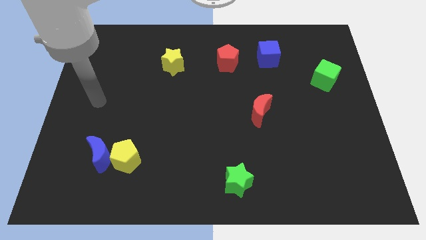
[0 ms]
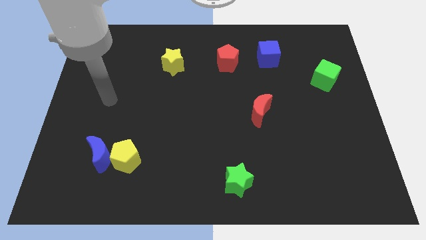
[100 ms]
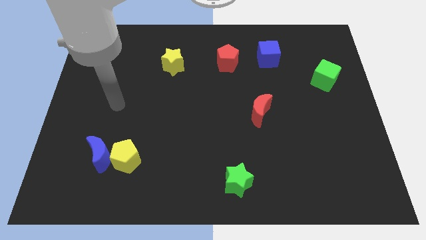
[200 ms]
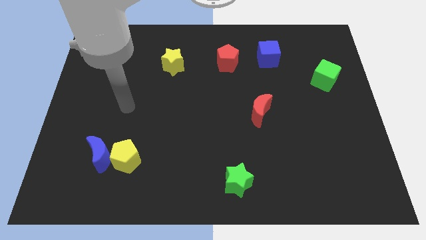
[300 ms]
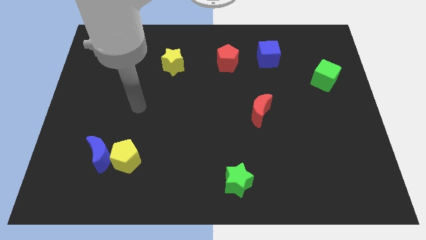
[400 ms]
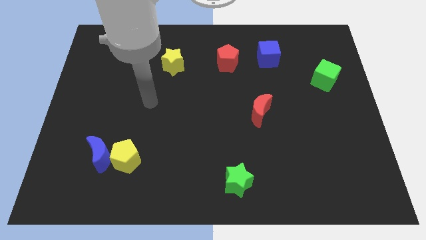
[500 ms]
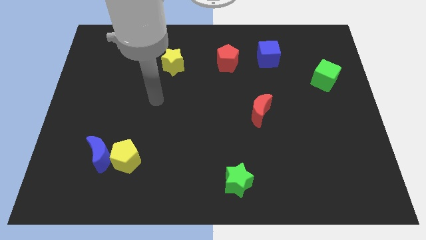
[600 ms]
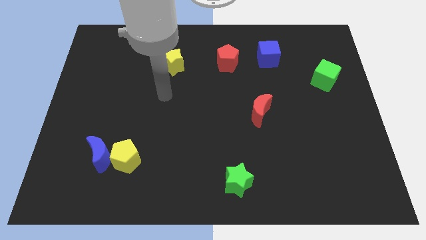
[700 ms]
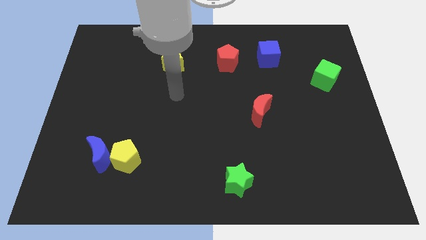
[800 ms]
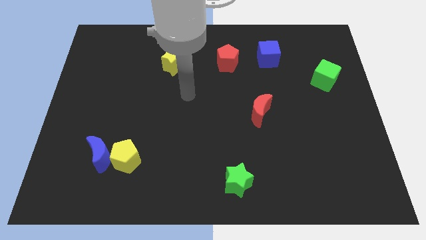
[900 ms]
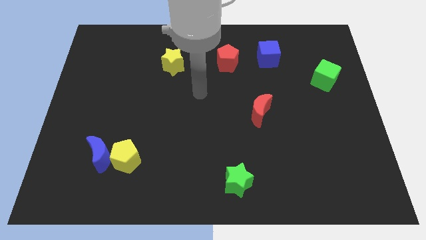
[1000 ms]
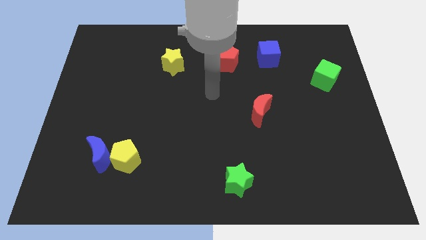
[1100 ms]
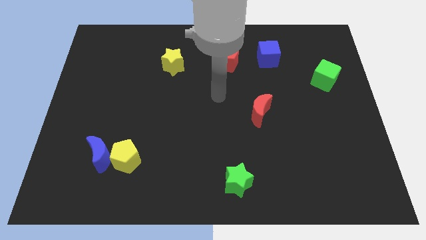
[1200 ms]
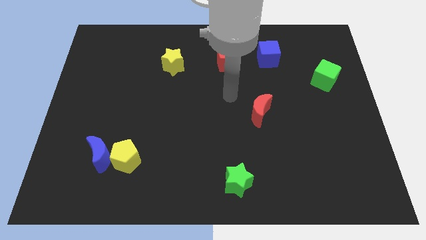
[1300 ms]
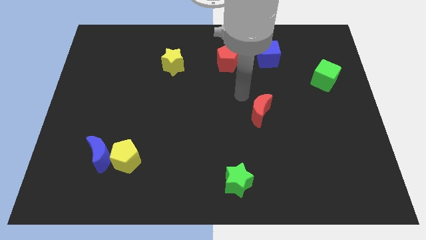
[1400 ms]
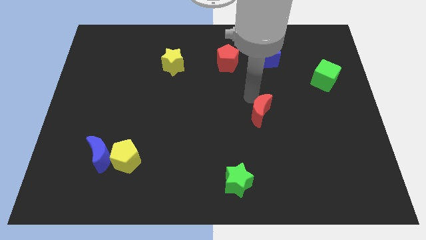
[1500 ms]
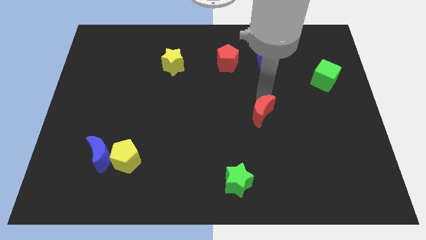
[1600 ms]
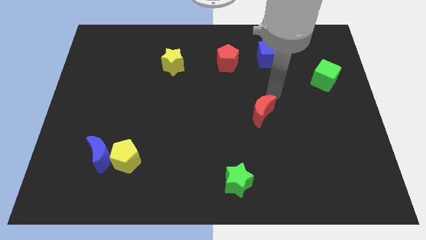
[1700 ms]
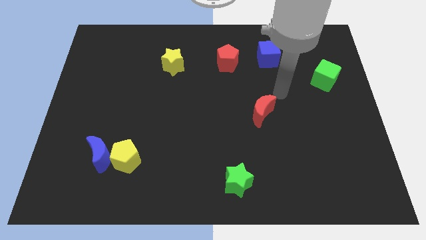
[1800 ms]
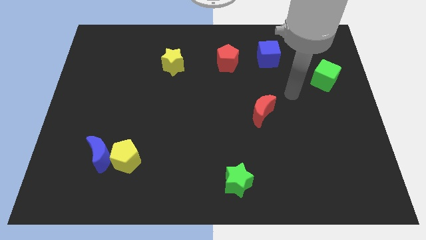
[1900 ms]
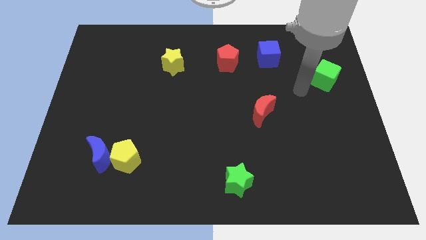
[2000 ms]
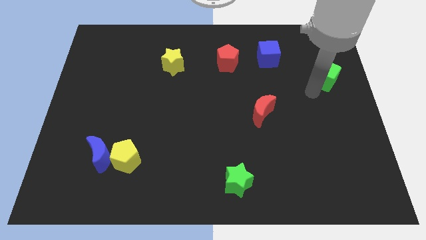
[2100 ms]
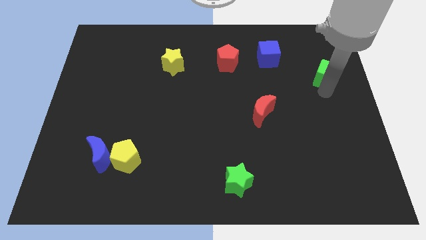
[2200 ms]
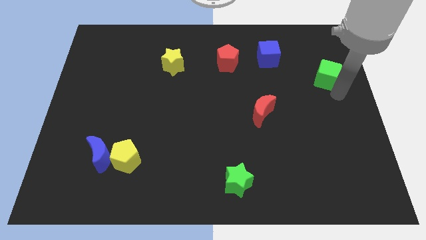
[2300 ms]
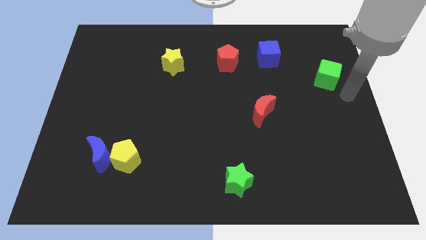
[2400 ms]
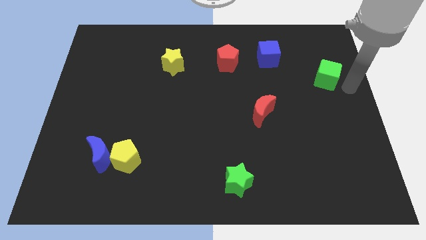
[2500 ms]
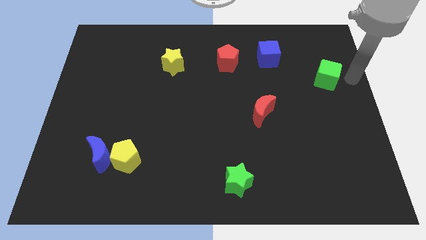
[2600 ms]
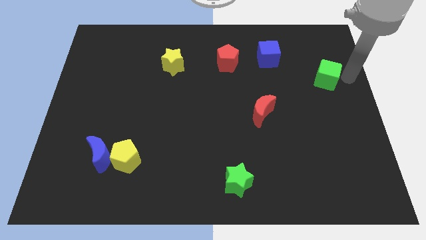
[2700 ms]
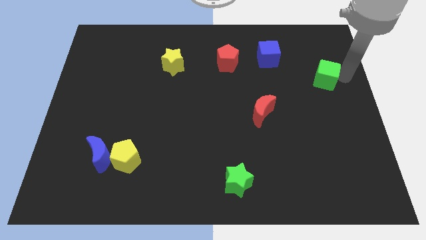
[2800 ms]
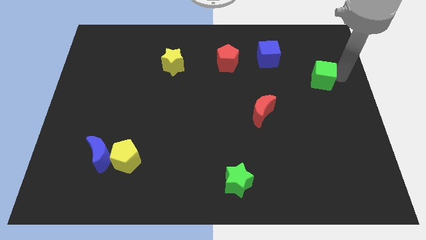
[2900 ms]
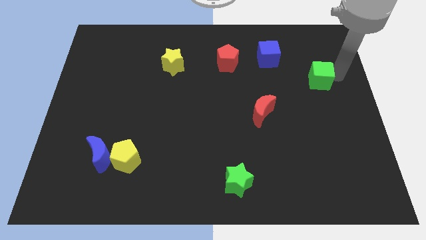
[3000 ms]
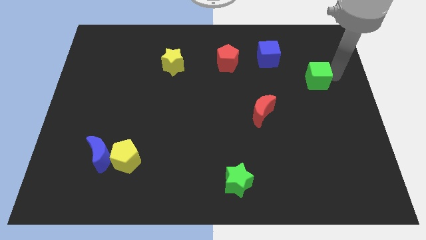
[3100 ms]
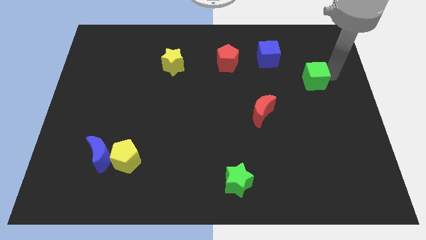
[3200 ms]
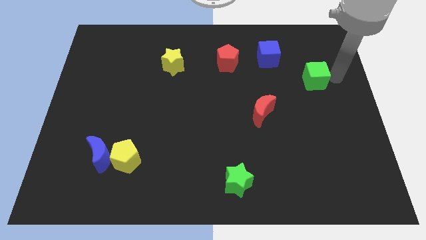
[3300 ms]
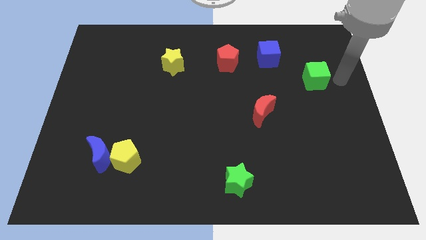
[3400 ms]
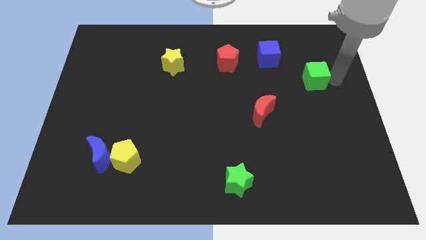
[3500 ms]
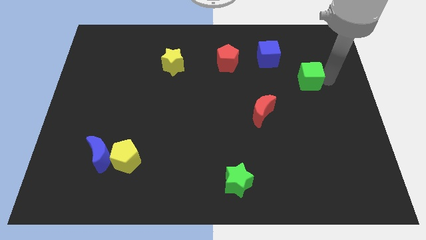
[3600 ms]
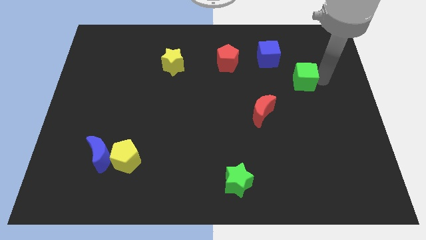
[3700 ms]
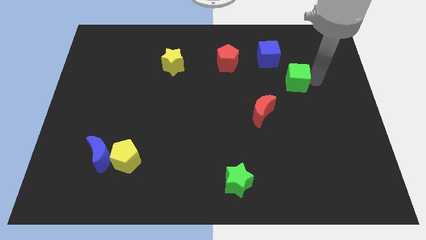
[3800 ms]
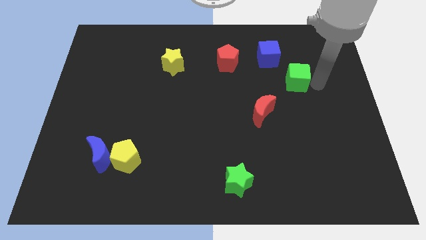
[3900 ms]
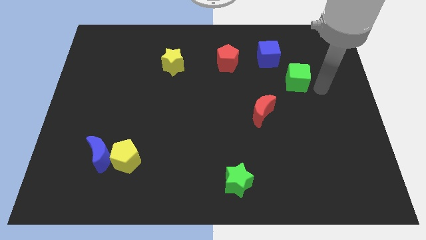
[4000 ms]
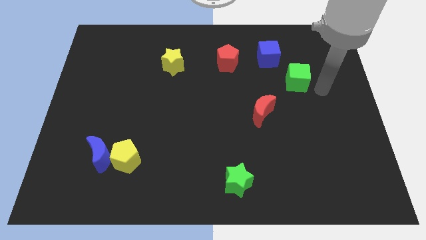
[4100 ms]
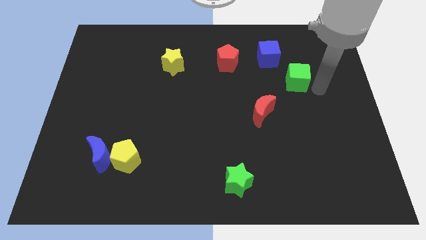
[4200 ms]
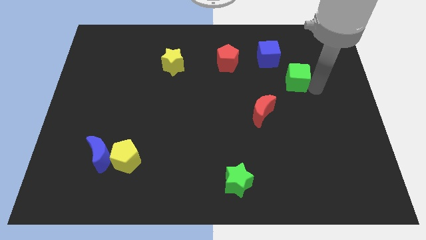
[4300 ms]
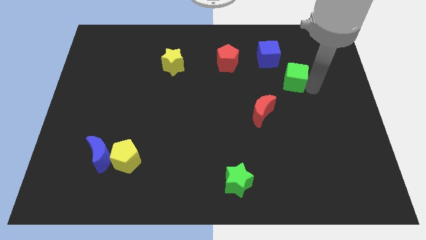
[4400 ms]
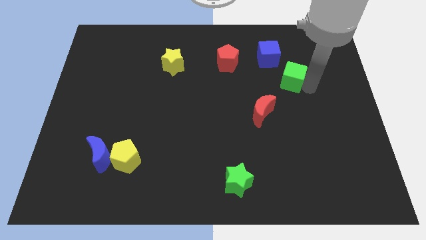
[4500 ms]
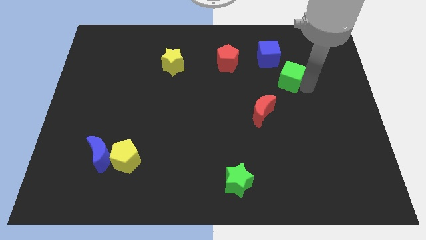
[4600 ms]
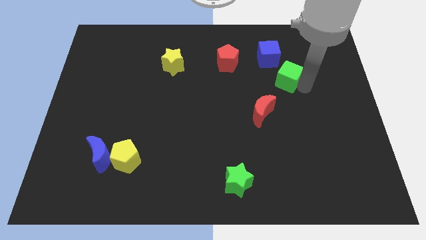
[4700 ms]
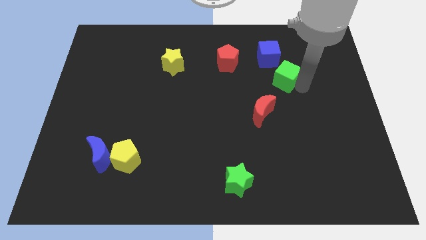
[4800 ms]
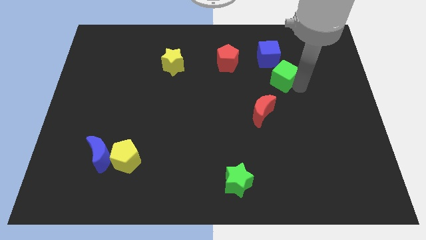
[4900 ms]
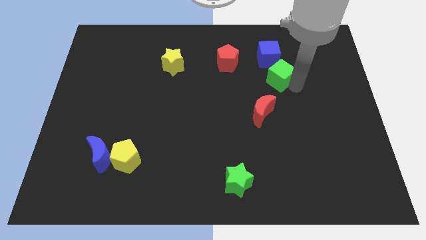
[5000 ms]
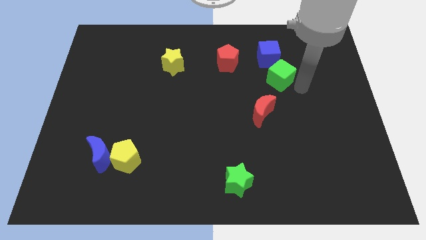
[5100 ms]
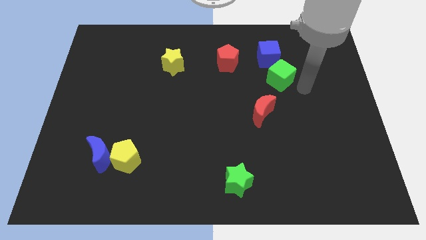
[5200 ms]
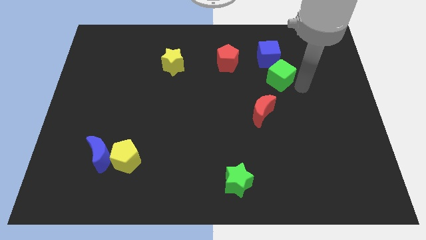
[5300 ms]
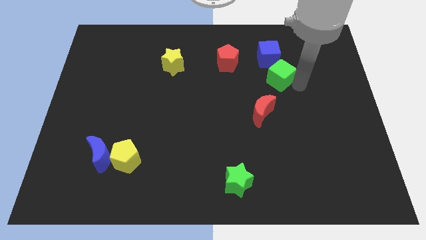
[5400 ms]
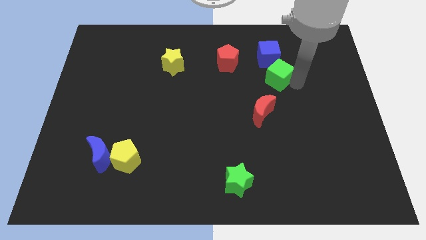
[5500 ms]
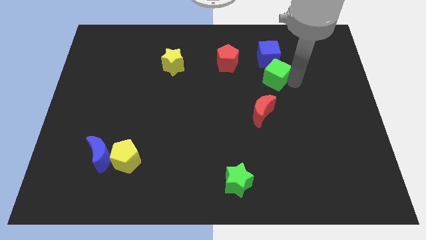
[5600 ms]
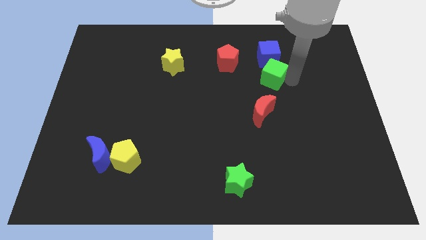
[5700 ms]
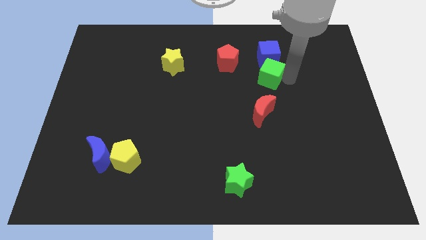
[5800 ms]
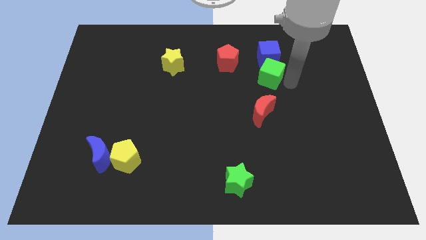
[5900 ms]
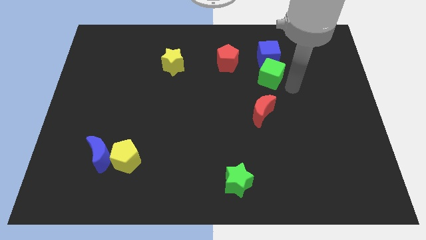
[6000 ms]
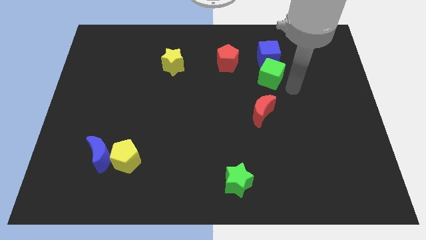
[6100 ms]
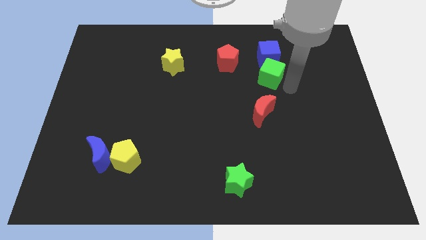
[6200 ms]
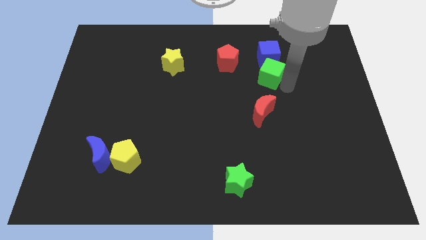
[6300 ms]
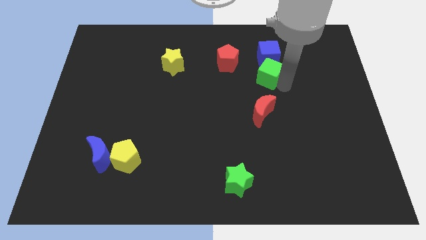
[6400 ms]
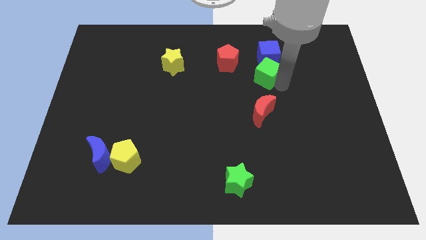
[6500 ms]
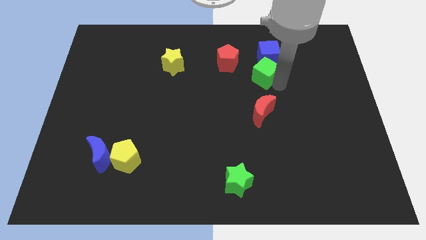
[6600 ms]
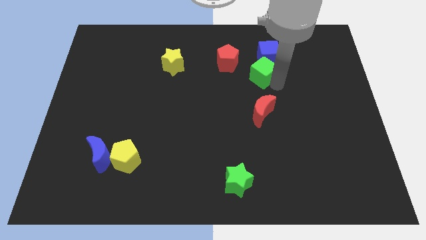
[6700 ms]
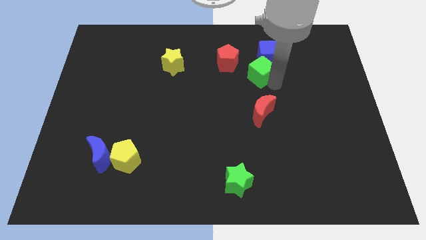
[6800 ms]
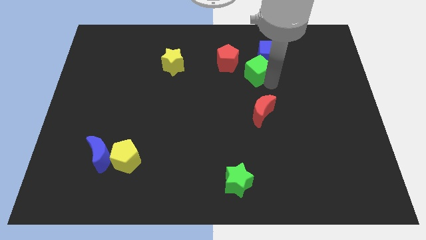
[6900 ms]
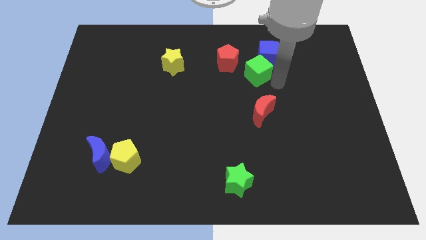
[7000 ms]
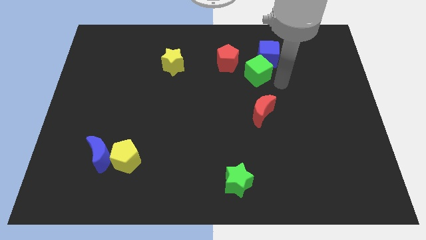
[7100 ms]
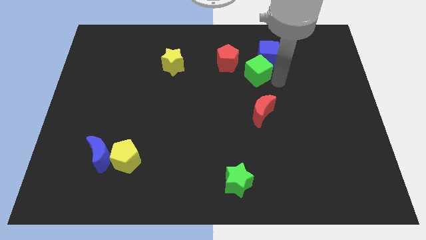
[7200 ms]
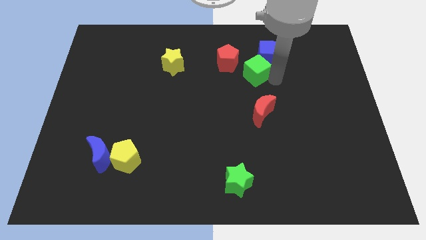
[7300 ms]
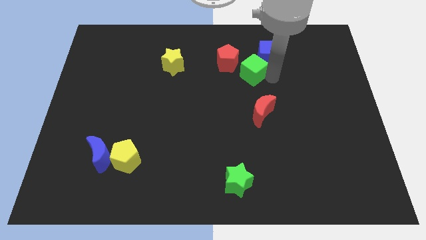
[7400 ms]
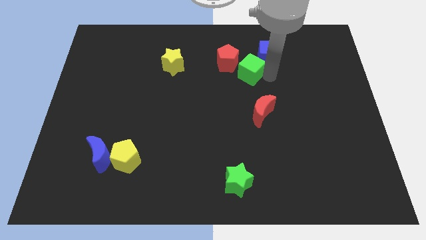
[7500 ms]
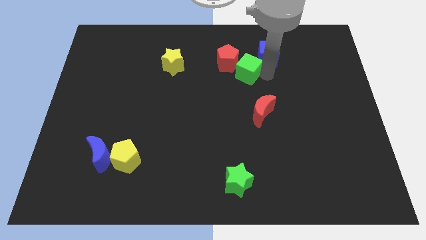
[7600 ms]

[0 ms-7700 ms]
slide the green cube towards the red pentagon
